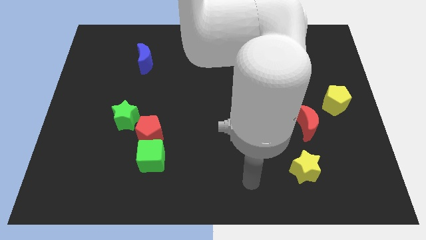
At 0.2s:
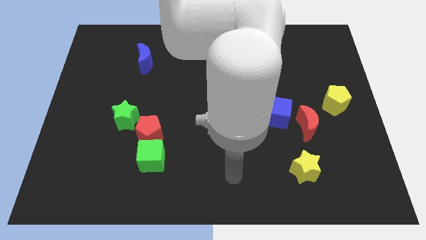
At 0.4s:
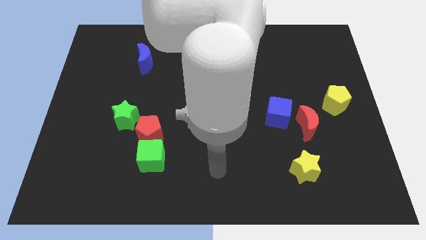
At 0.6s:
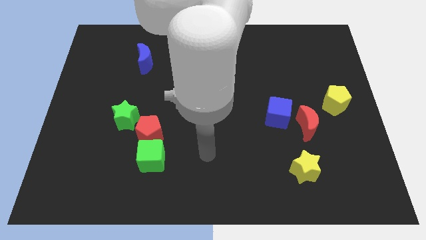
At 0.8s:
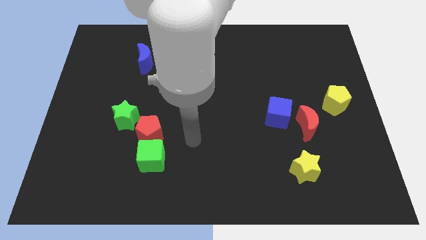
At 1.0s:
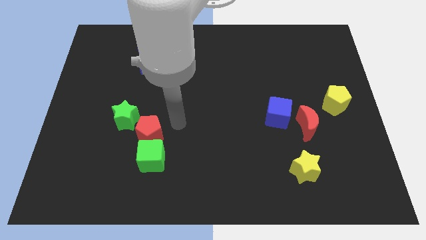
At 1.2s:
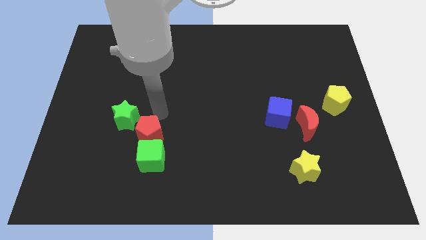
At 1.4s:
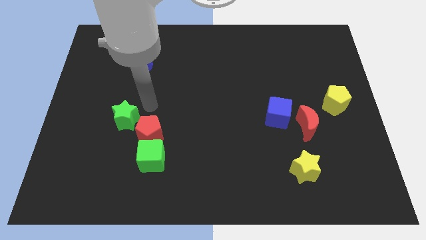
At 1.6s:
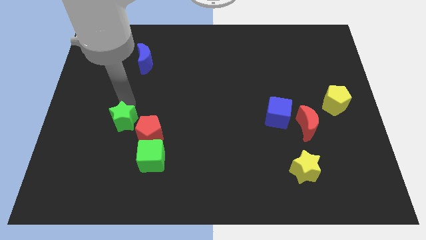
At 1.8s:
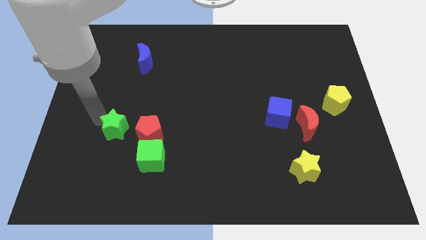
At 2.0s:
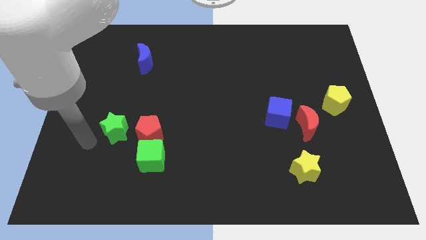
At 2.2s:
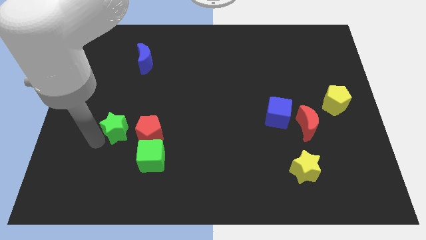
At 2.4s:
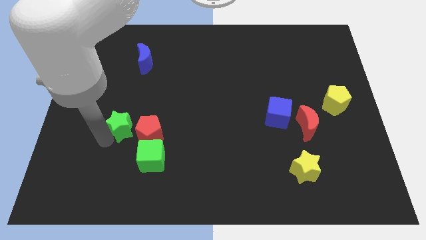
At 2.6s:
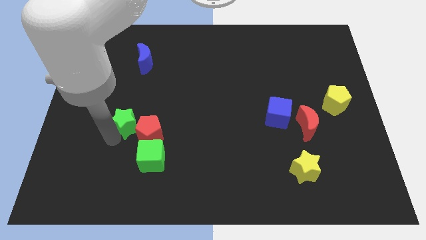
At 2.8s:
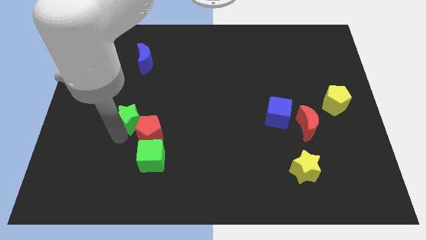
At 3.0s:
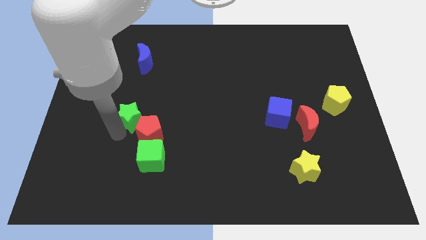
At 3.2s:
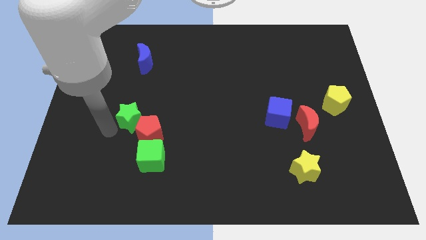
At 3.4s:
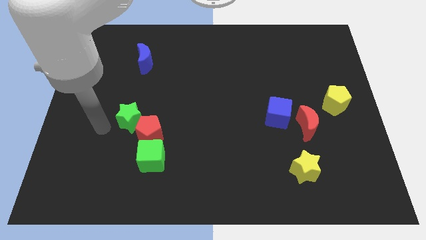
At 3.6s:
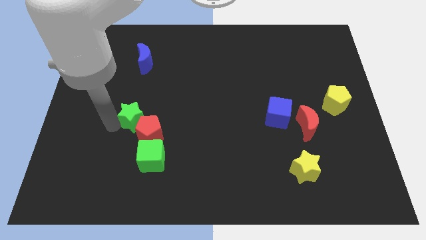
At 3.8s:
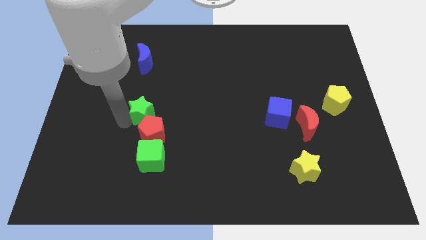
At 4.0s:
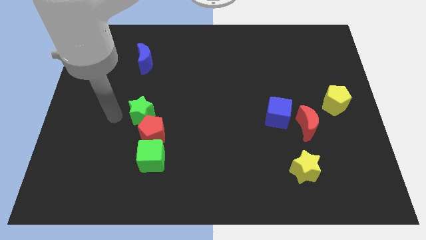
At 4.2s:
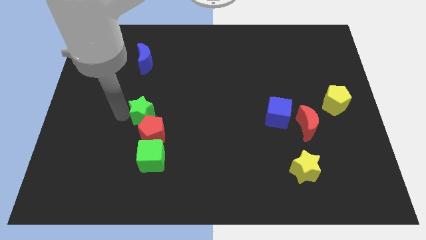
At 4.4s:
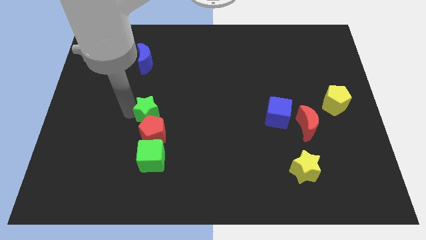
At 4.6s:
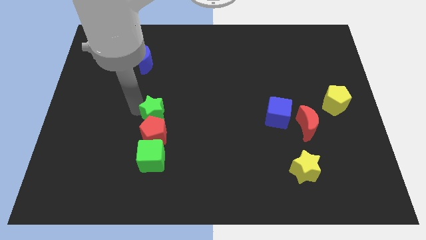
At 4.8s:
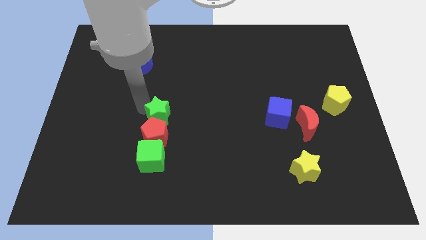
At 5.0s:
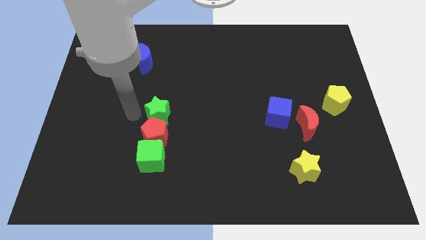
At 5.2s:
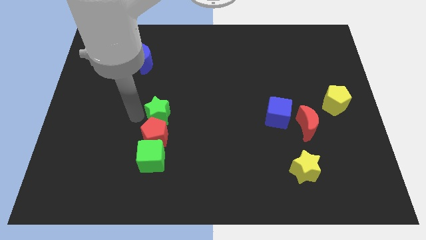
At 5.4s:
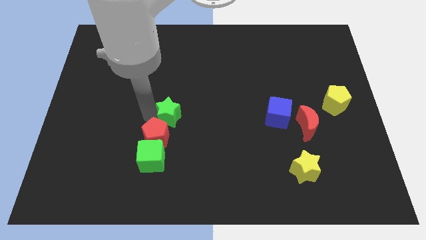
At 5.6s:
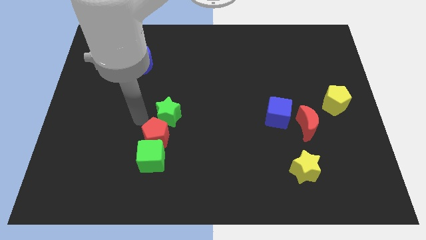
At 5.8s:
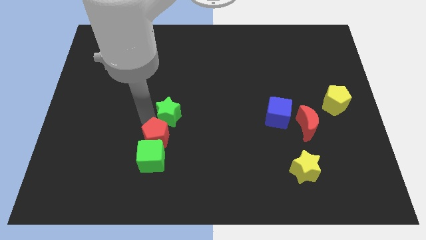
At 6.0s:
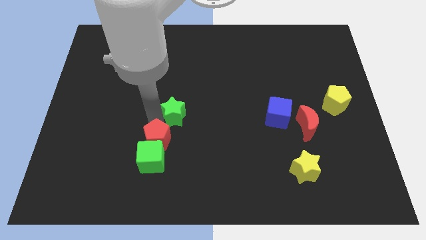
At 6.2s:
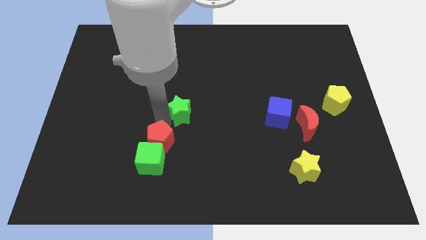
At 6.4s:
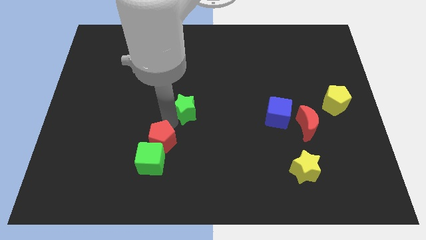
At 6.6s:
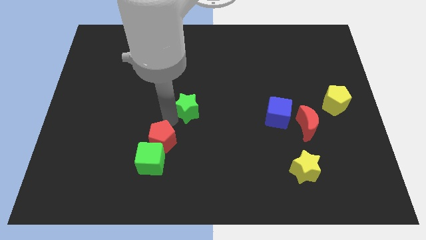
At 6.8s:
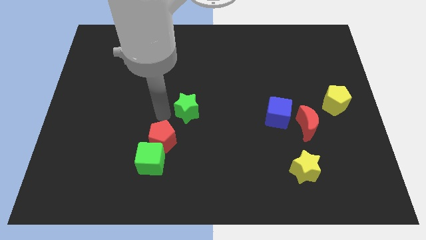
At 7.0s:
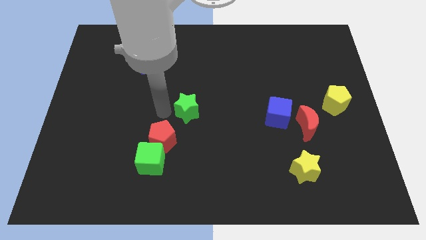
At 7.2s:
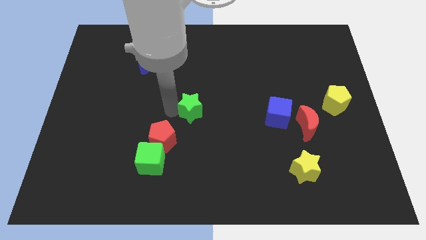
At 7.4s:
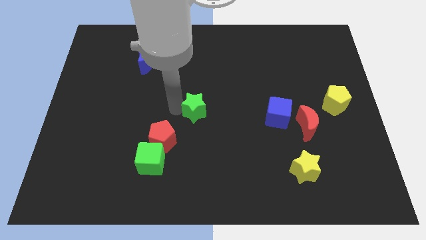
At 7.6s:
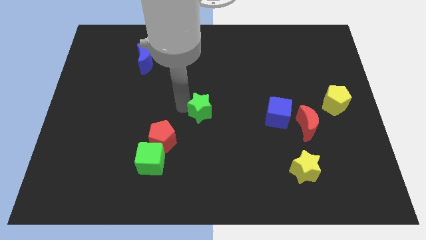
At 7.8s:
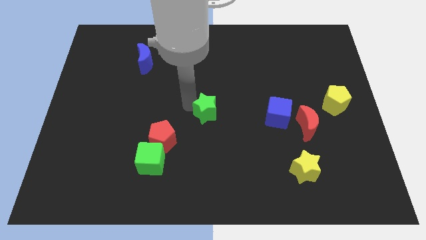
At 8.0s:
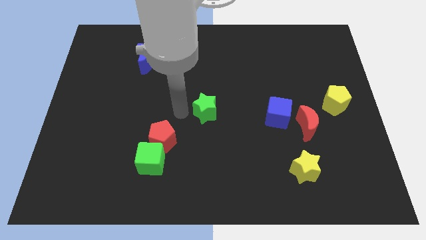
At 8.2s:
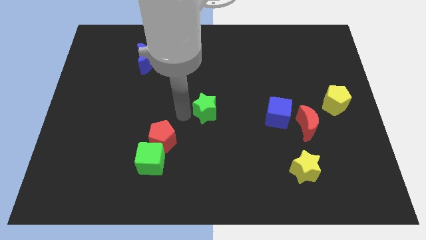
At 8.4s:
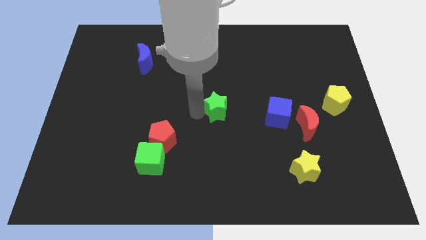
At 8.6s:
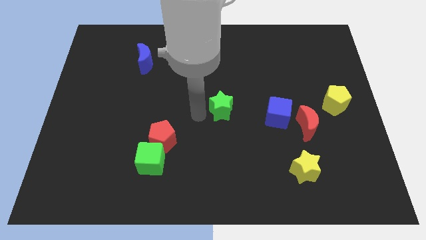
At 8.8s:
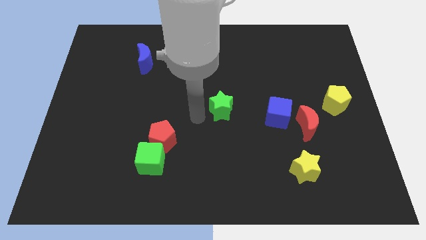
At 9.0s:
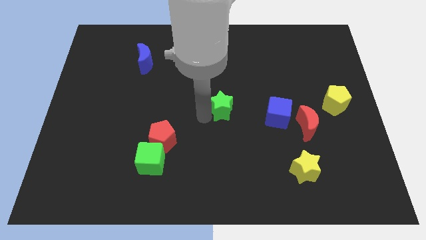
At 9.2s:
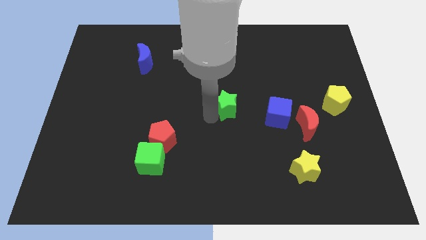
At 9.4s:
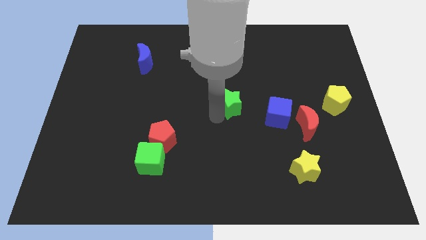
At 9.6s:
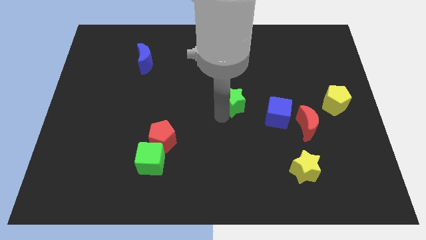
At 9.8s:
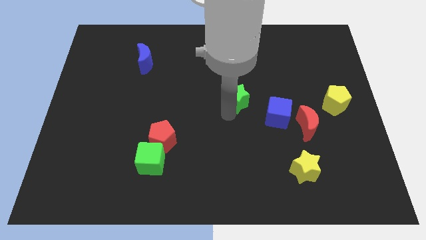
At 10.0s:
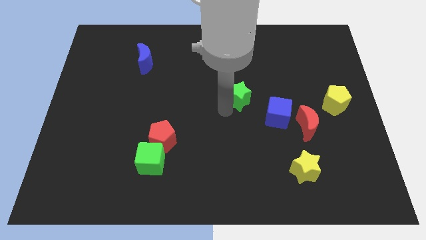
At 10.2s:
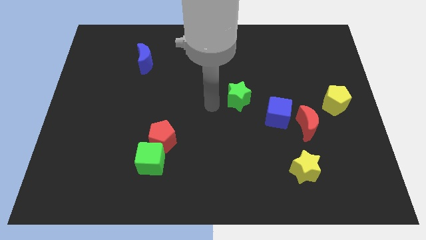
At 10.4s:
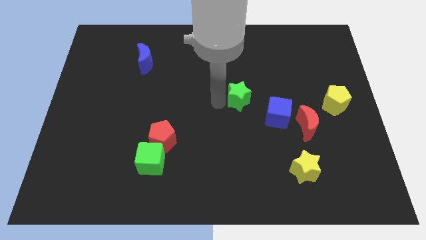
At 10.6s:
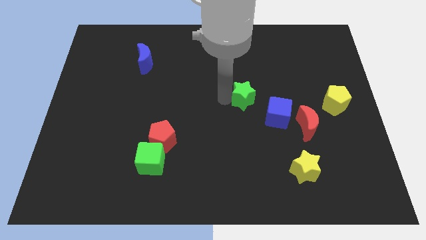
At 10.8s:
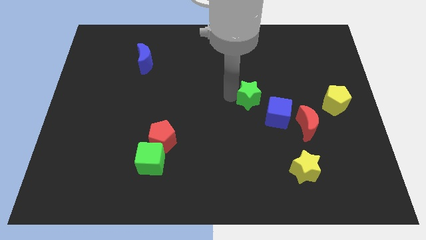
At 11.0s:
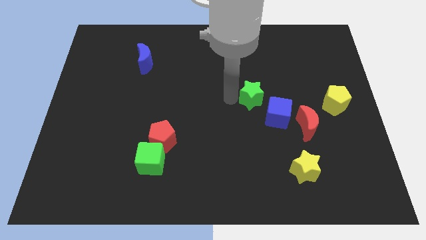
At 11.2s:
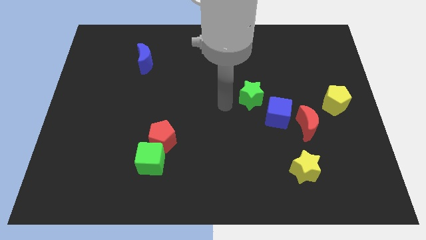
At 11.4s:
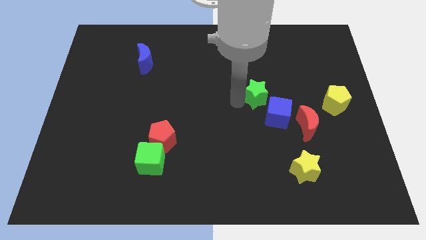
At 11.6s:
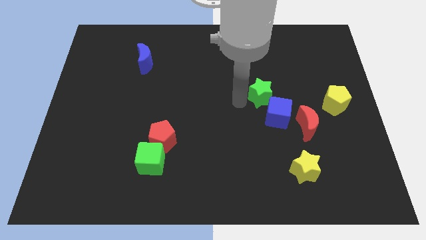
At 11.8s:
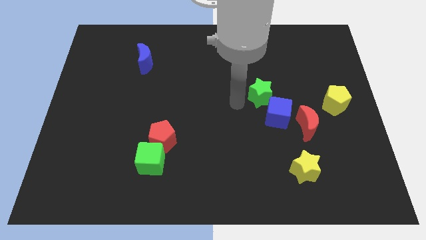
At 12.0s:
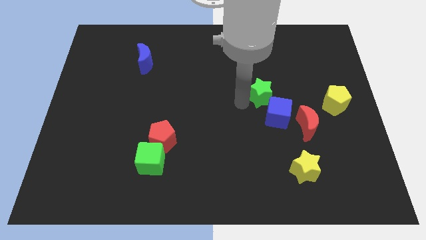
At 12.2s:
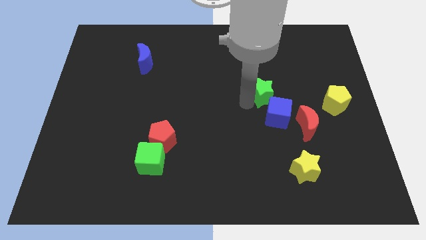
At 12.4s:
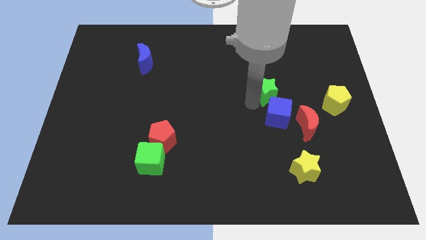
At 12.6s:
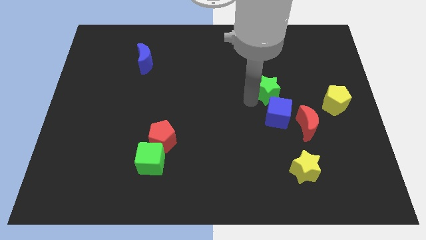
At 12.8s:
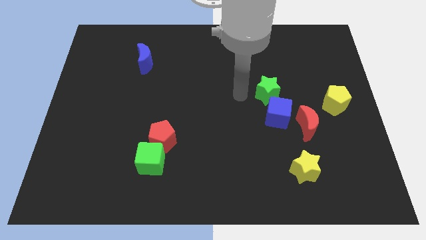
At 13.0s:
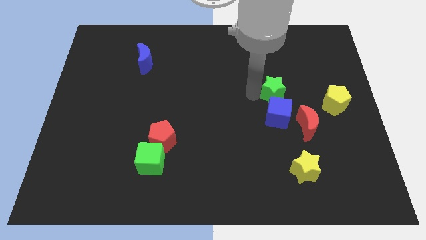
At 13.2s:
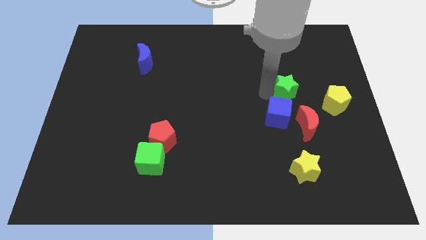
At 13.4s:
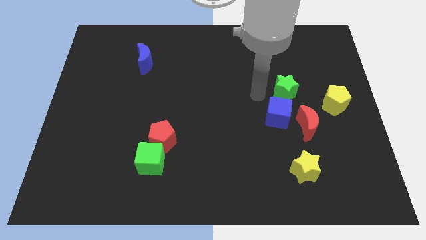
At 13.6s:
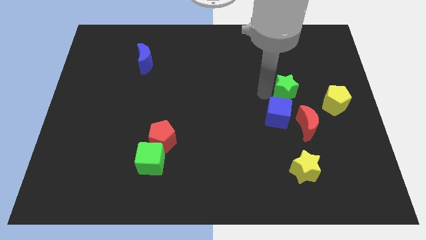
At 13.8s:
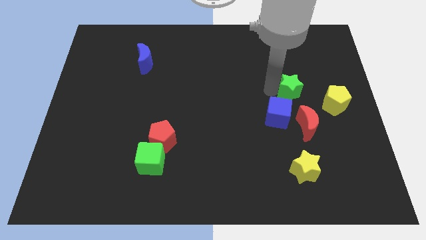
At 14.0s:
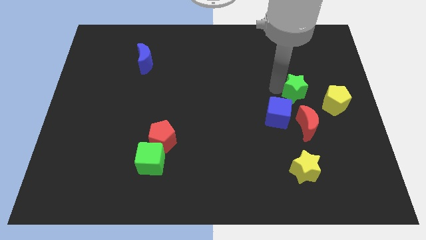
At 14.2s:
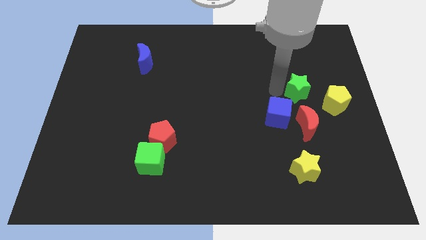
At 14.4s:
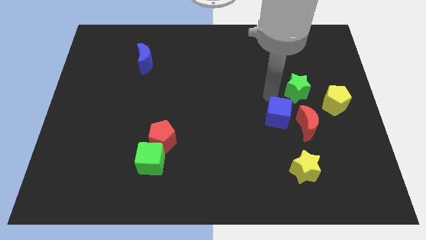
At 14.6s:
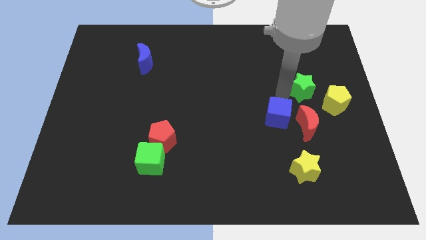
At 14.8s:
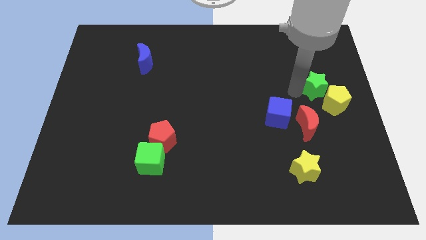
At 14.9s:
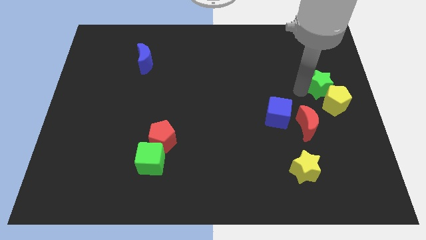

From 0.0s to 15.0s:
put the green star to the right side of the board
